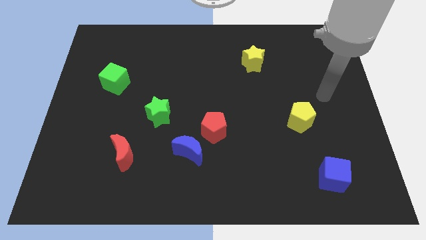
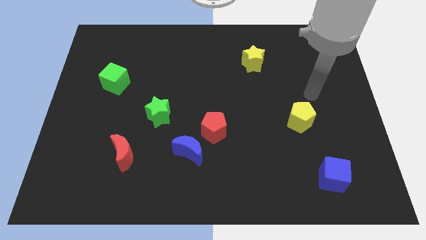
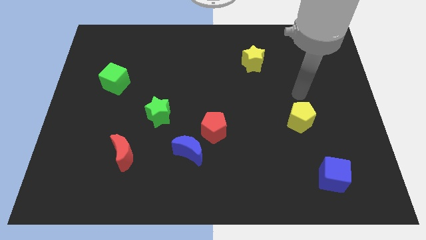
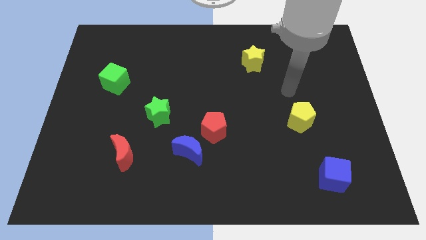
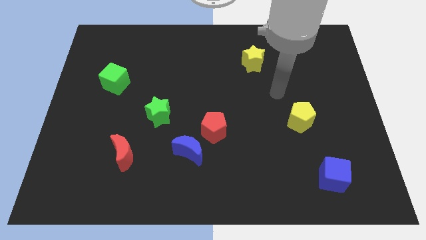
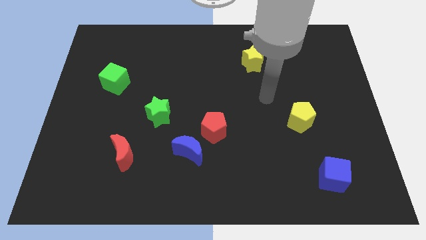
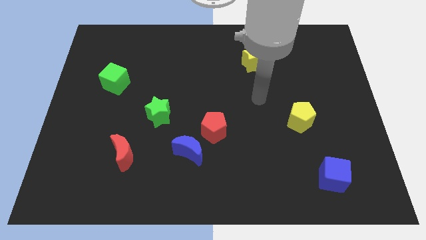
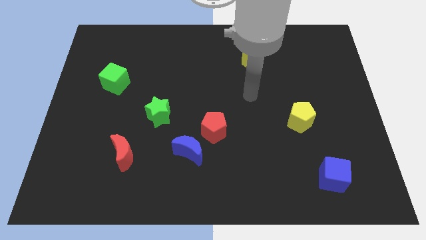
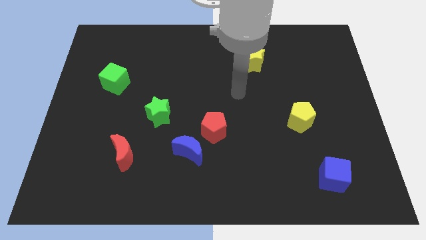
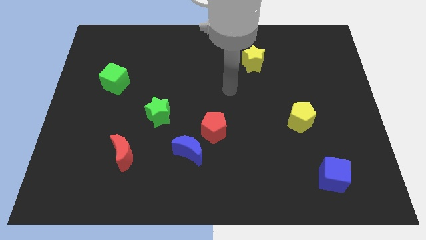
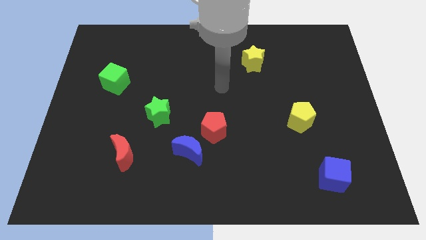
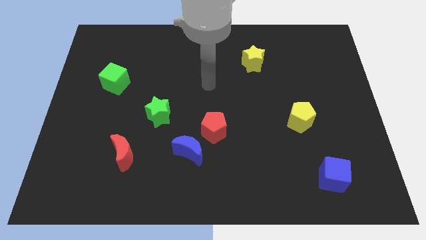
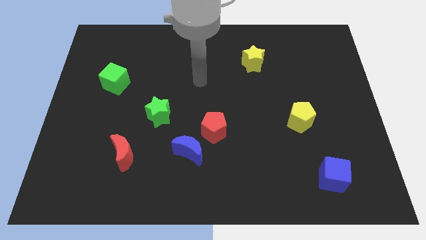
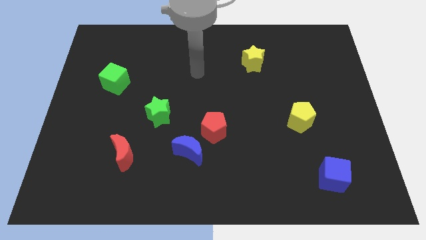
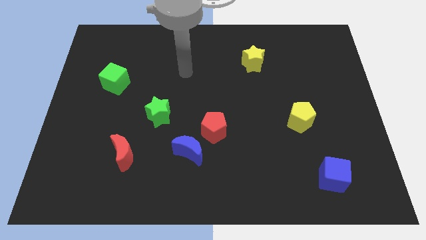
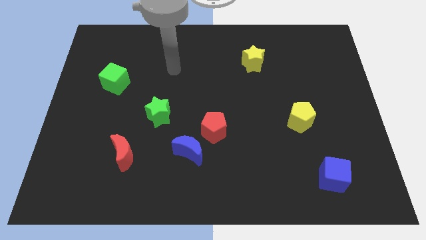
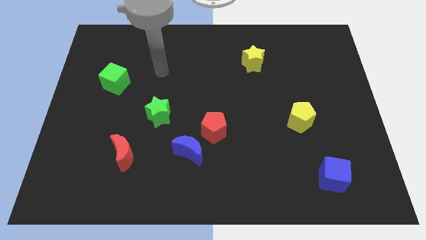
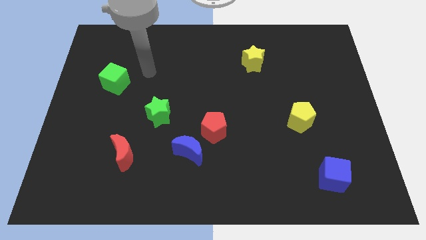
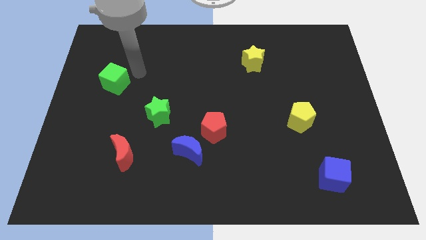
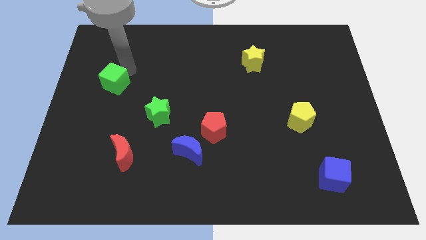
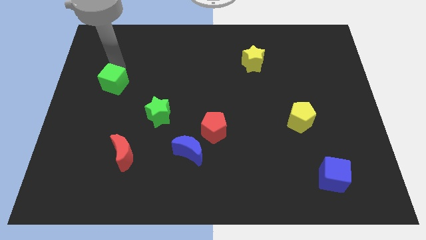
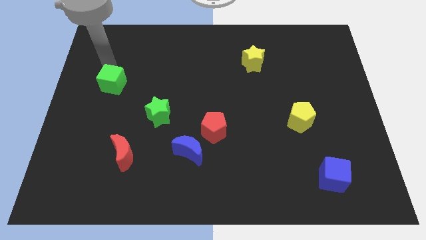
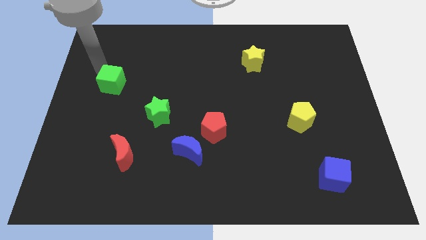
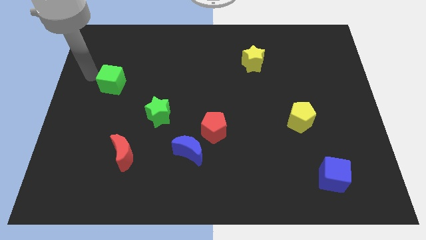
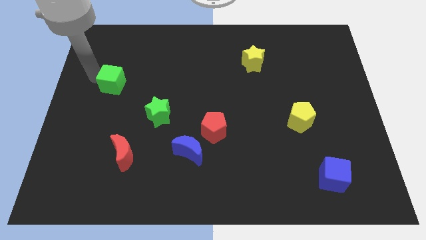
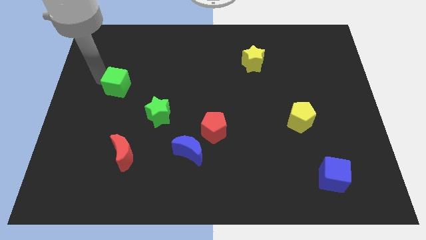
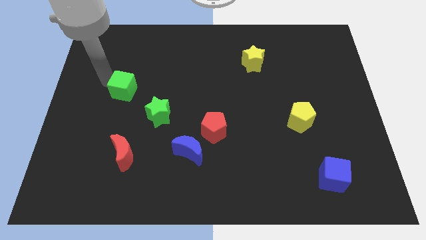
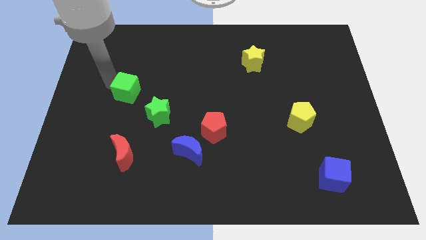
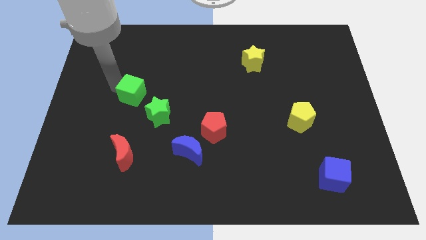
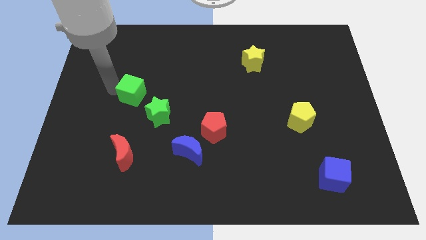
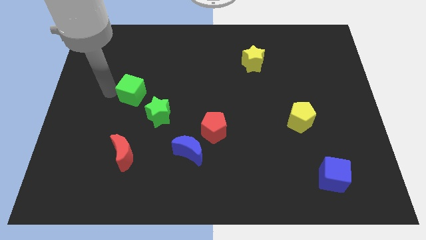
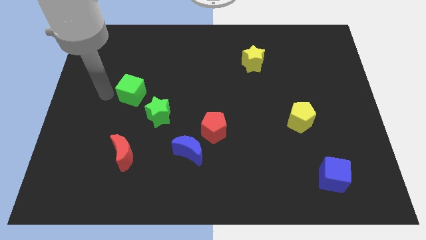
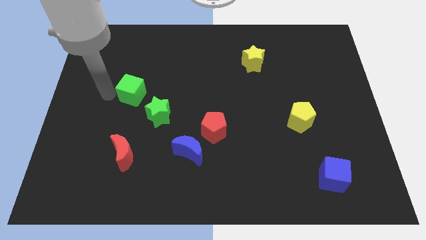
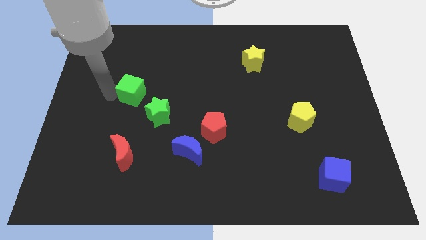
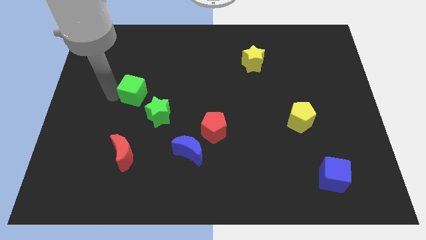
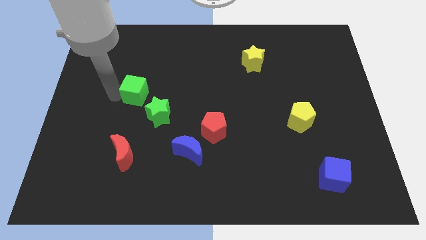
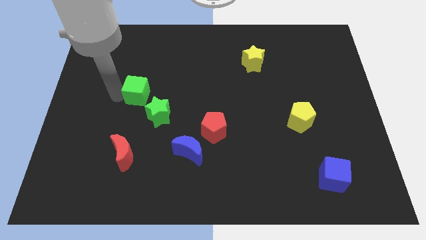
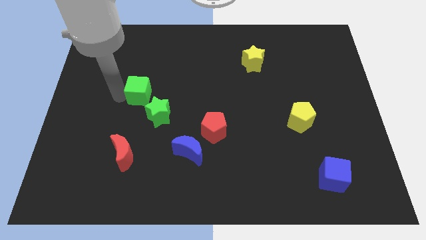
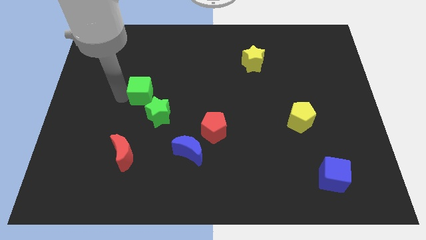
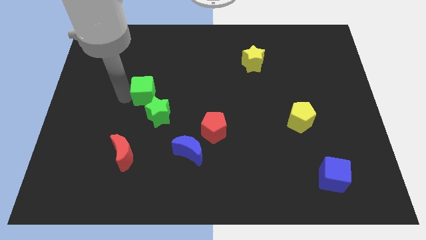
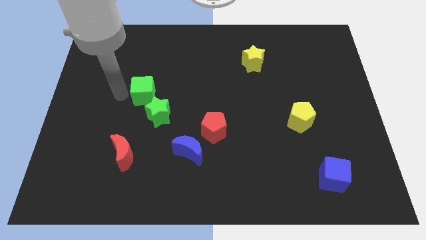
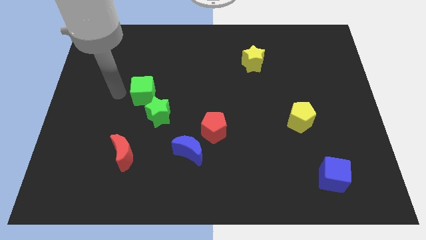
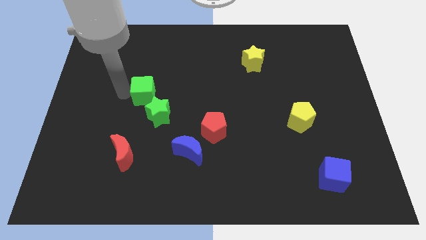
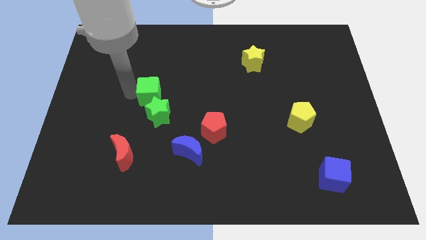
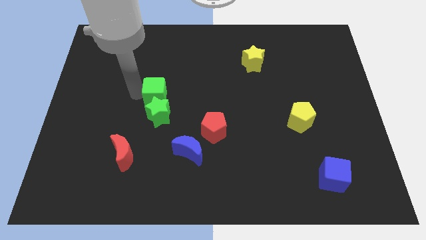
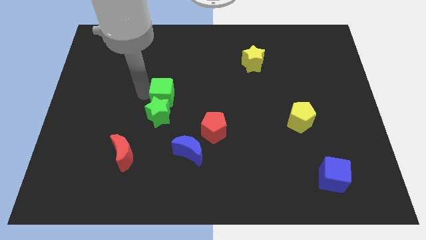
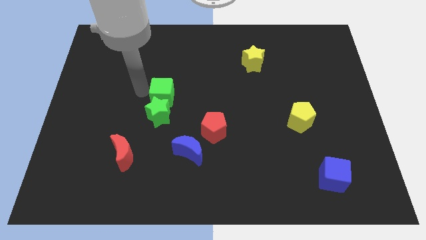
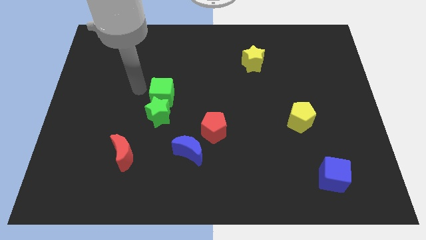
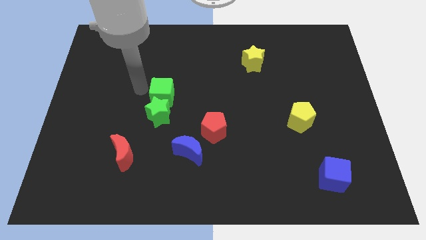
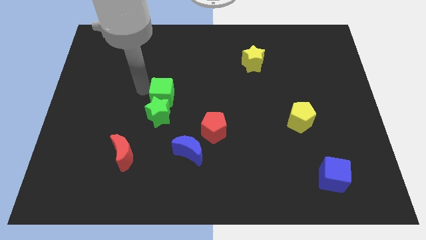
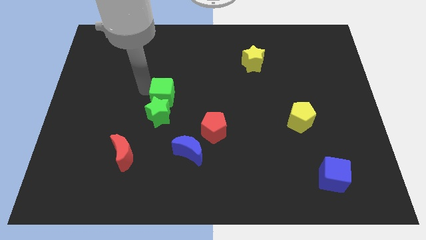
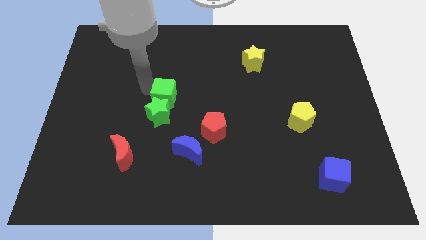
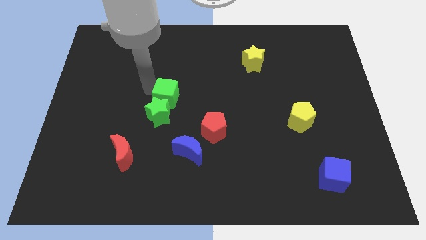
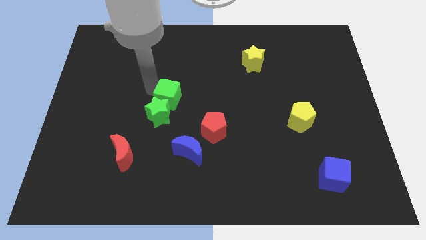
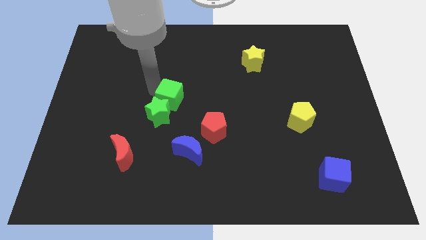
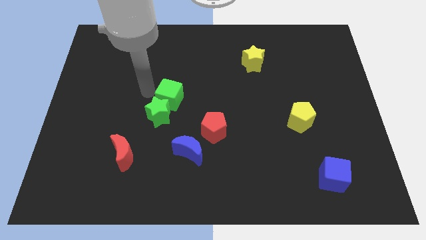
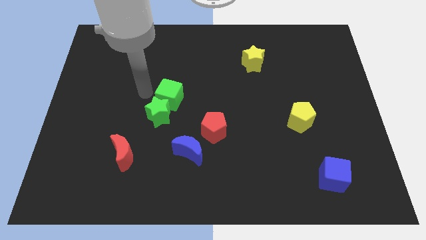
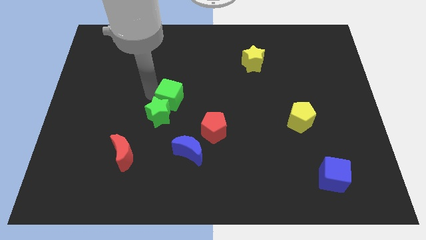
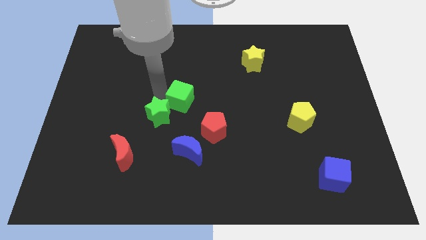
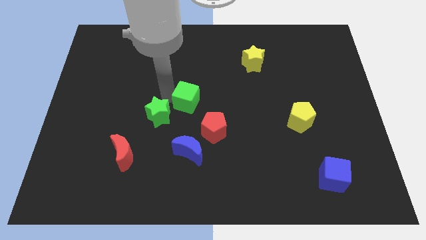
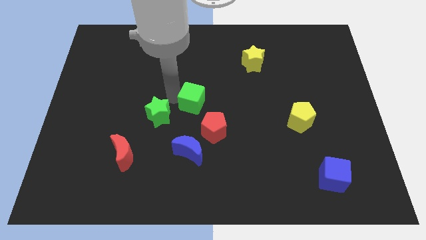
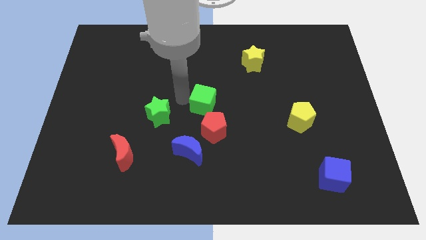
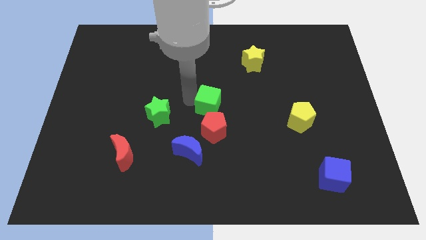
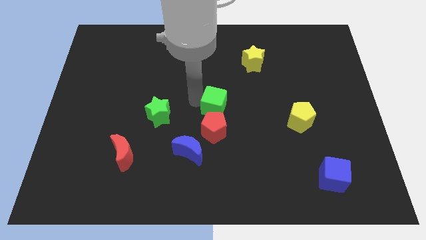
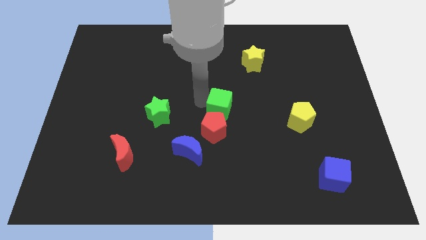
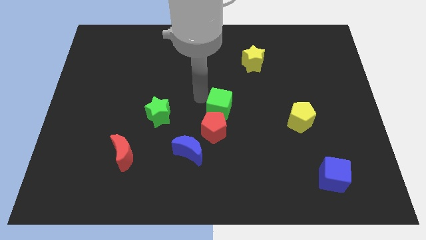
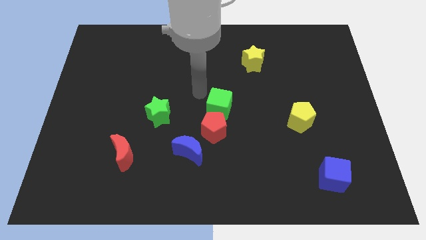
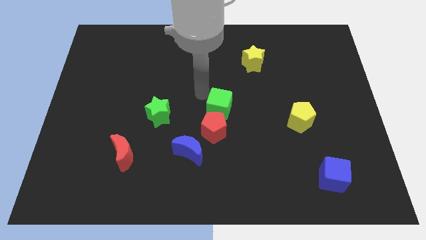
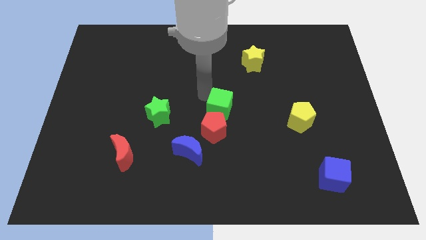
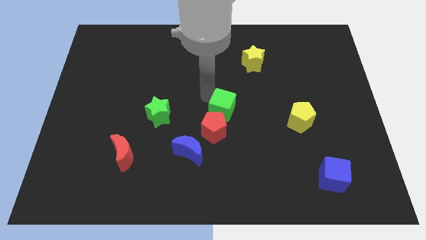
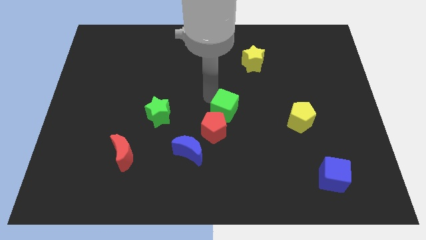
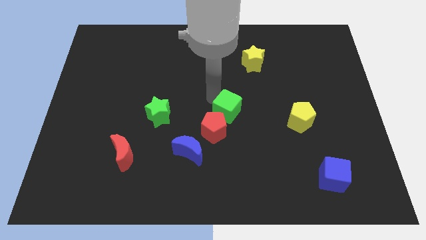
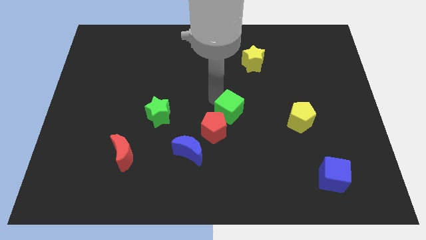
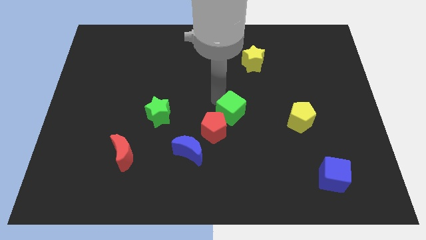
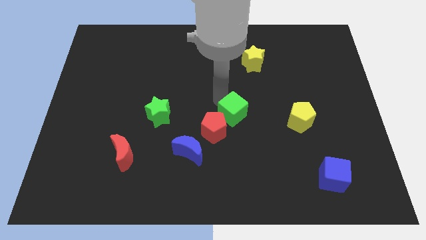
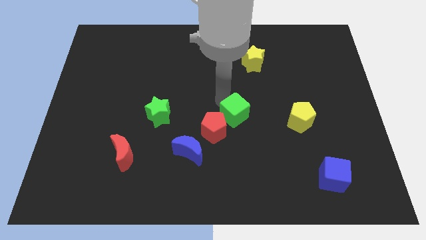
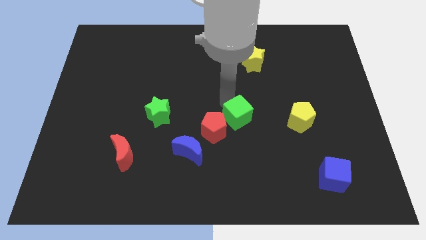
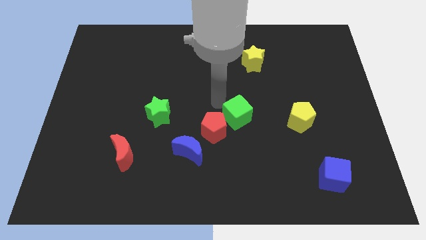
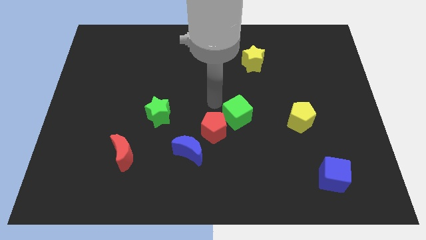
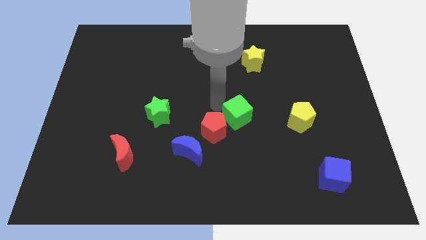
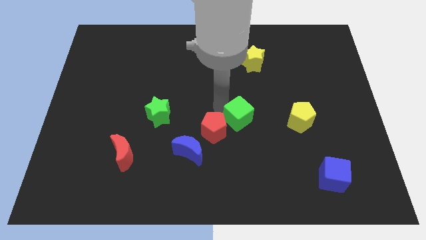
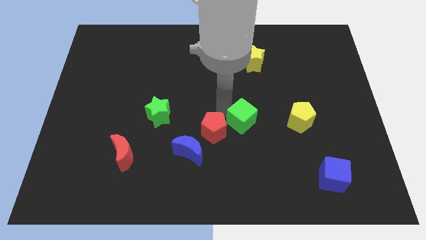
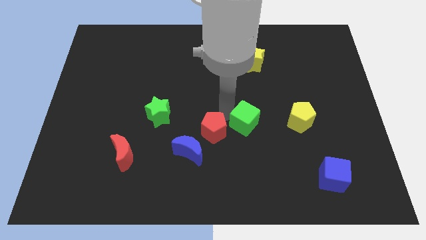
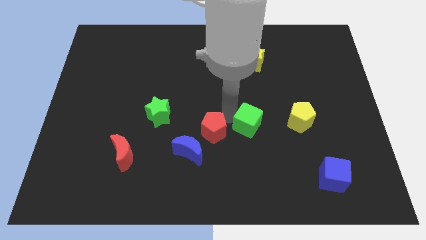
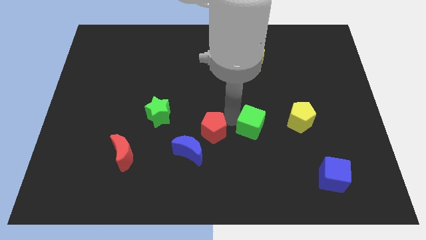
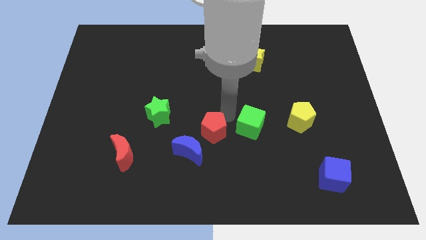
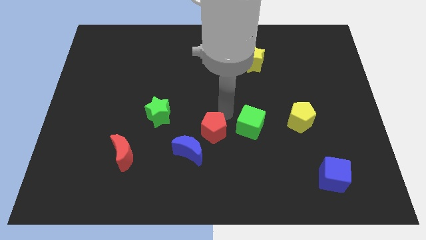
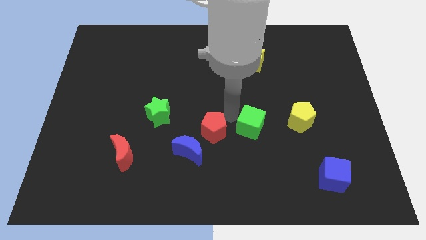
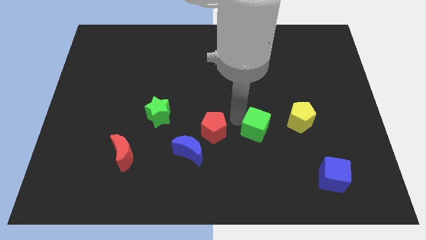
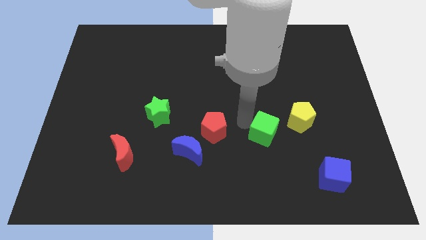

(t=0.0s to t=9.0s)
move the green cube to the bottom left side of the yellow pentagon
